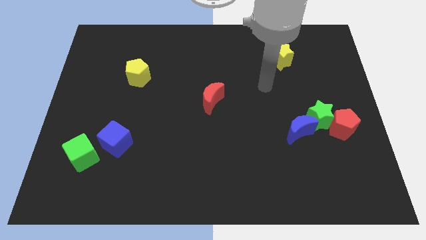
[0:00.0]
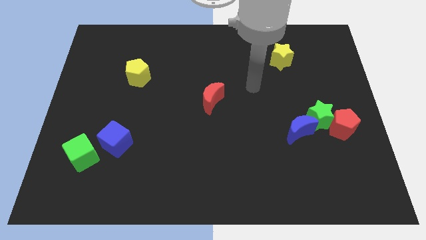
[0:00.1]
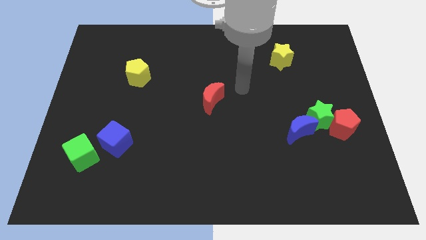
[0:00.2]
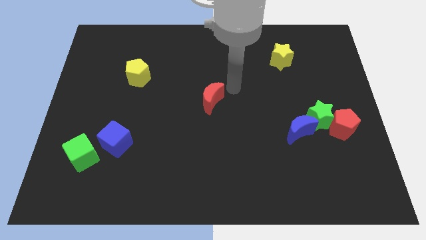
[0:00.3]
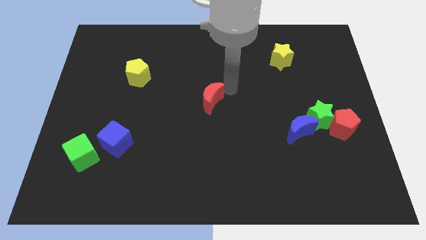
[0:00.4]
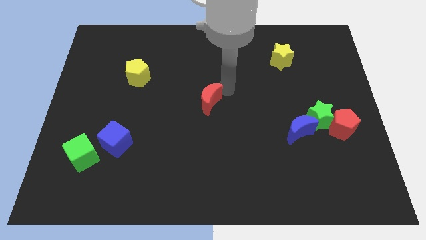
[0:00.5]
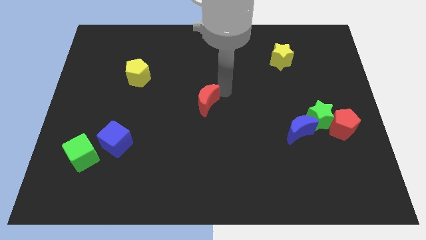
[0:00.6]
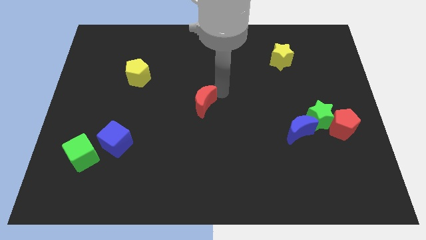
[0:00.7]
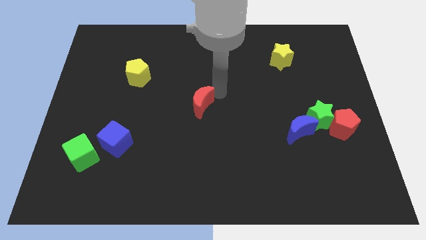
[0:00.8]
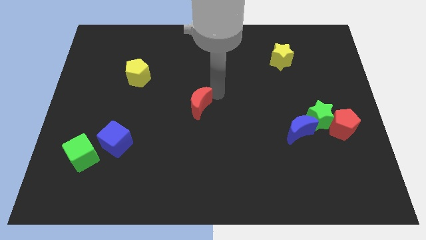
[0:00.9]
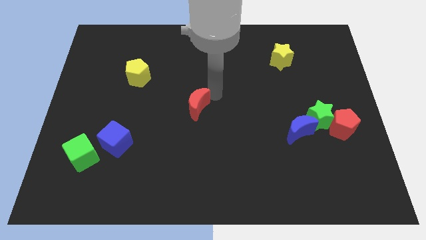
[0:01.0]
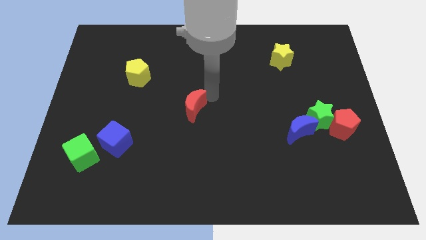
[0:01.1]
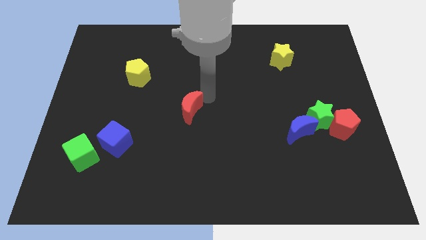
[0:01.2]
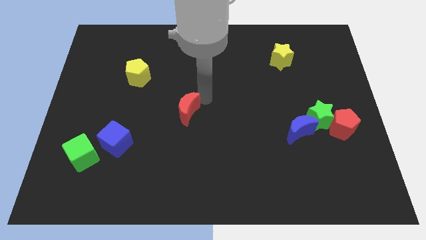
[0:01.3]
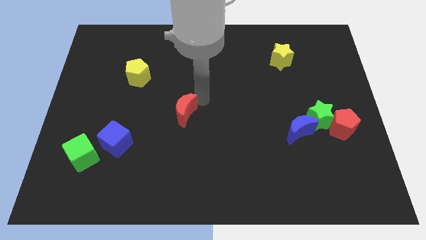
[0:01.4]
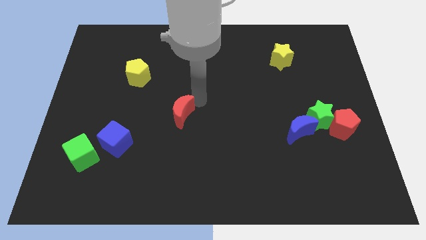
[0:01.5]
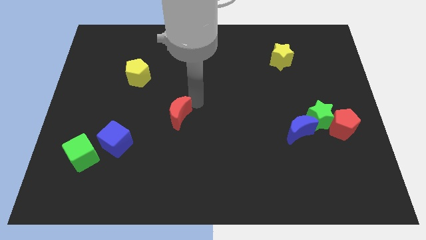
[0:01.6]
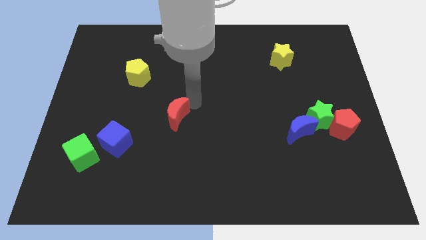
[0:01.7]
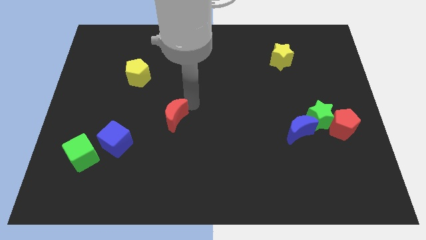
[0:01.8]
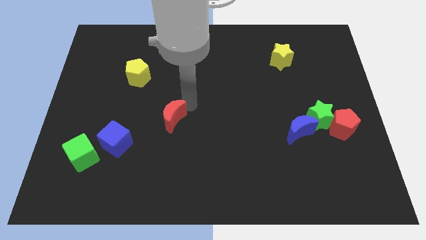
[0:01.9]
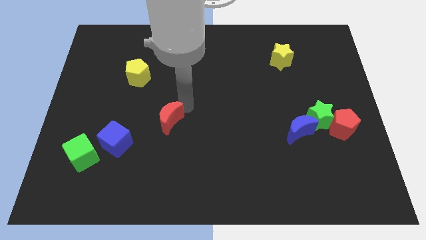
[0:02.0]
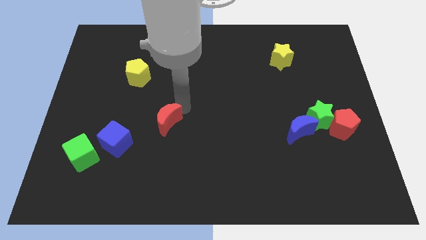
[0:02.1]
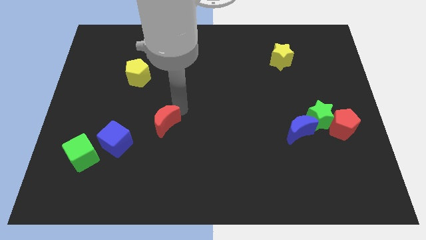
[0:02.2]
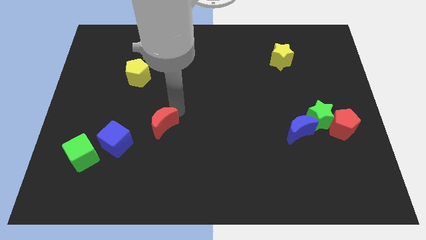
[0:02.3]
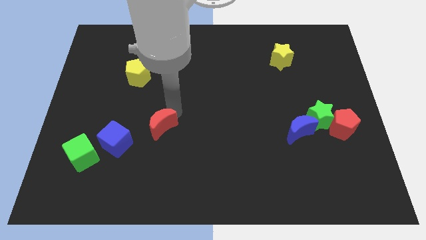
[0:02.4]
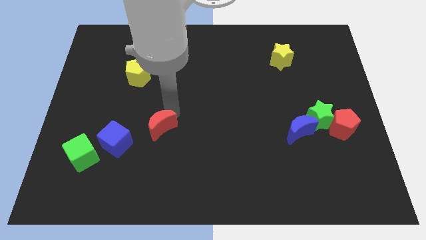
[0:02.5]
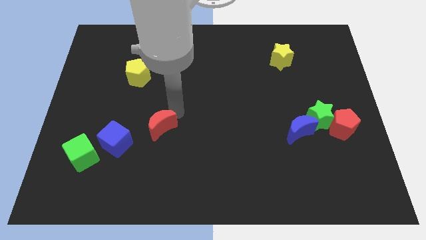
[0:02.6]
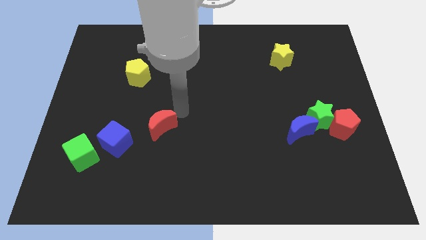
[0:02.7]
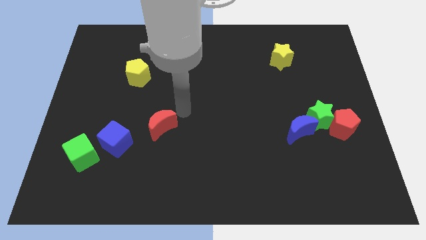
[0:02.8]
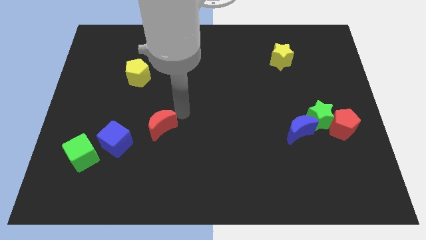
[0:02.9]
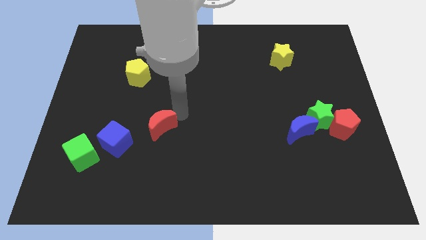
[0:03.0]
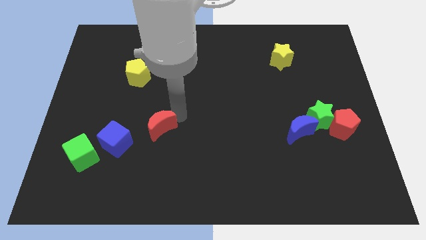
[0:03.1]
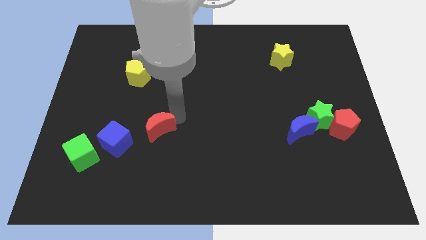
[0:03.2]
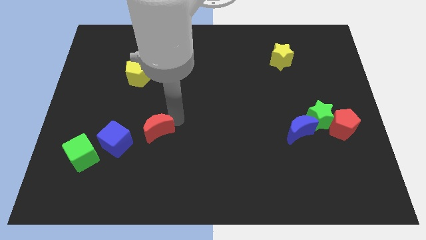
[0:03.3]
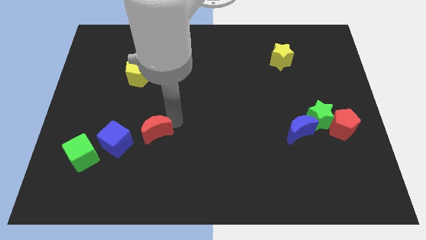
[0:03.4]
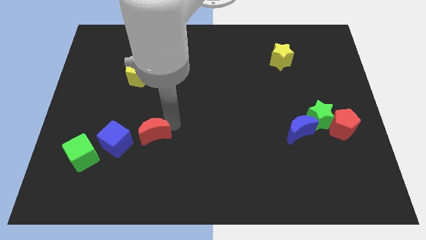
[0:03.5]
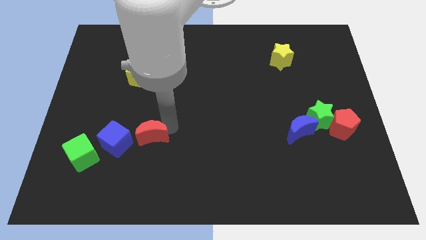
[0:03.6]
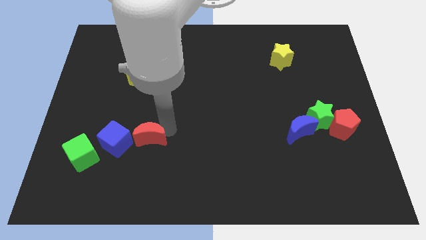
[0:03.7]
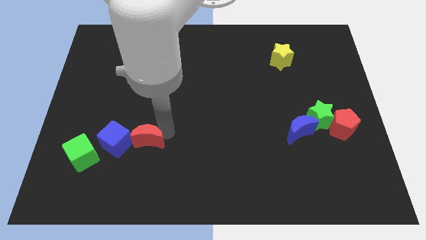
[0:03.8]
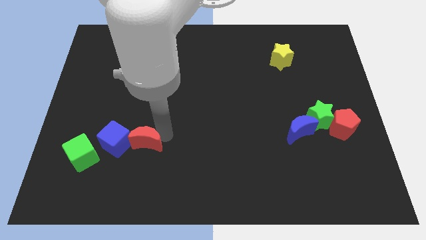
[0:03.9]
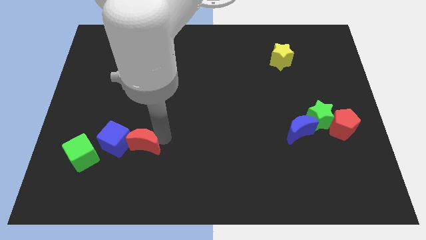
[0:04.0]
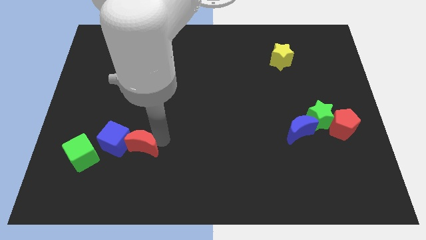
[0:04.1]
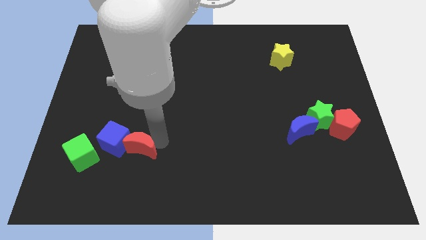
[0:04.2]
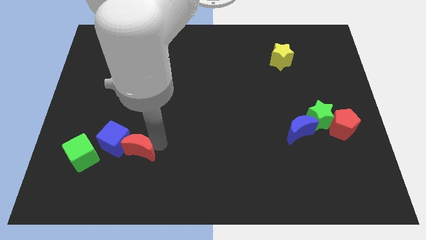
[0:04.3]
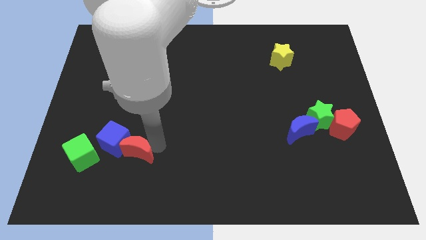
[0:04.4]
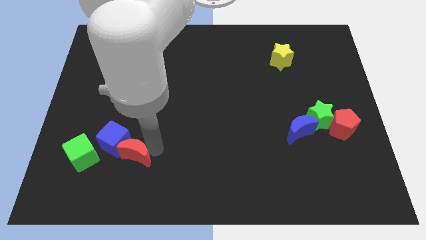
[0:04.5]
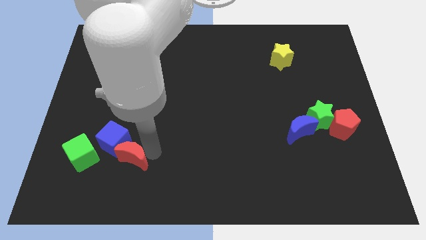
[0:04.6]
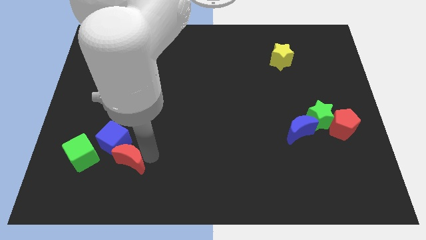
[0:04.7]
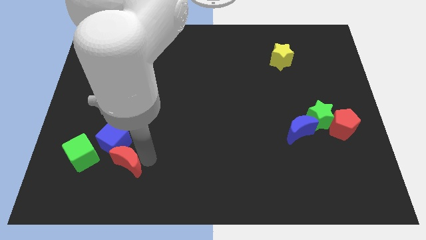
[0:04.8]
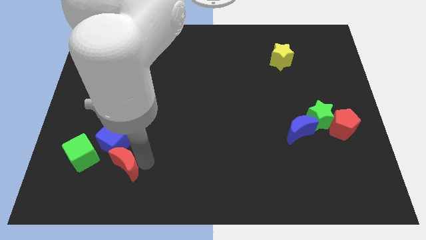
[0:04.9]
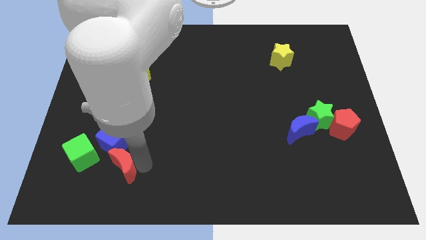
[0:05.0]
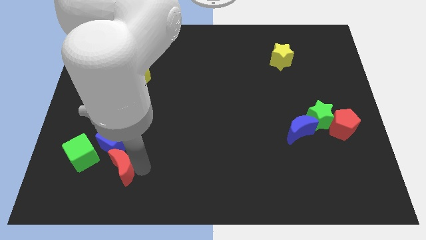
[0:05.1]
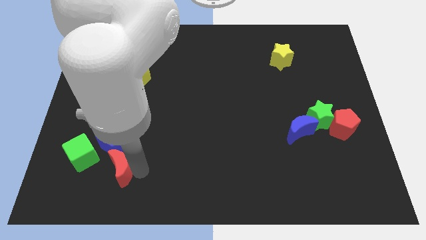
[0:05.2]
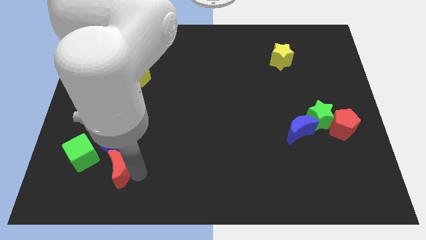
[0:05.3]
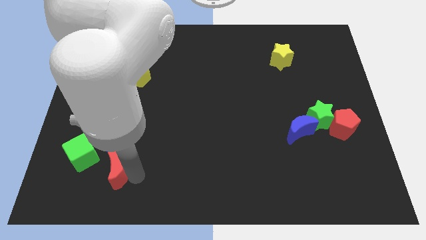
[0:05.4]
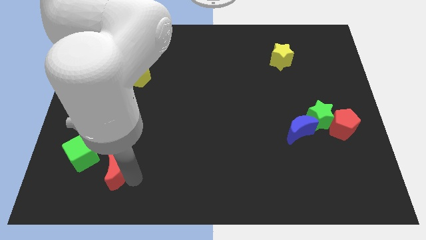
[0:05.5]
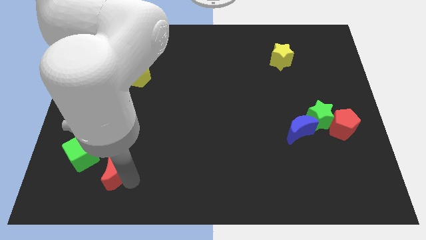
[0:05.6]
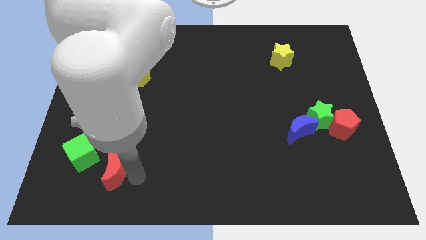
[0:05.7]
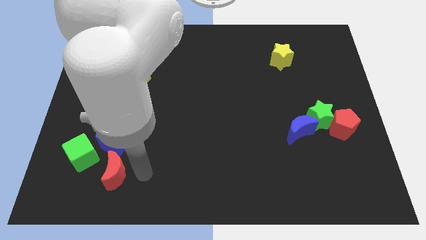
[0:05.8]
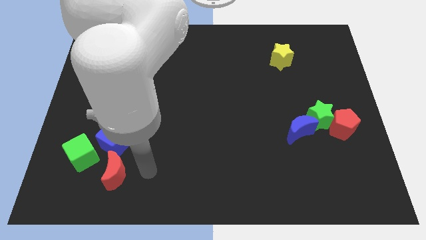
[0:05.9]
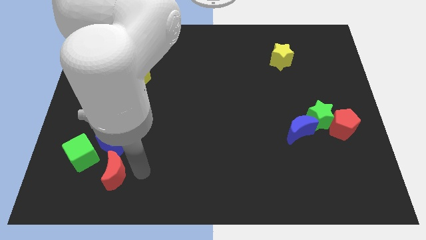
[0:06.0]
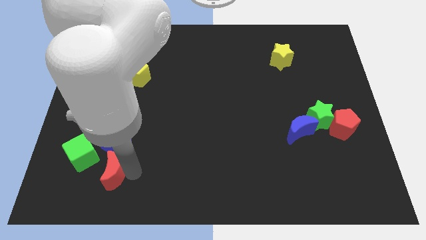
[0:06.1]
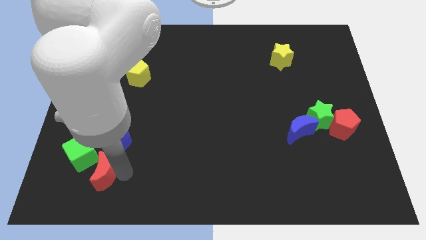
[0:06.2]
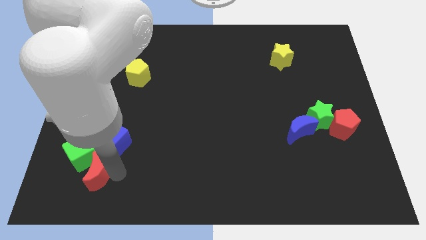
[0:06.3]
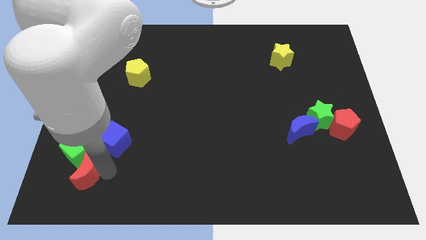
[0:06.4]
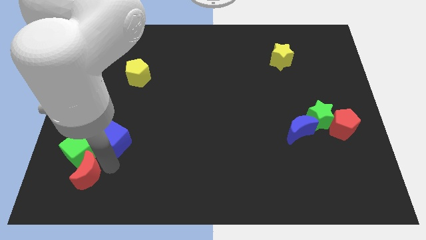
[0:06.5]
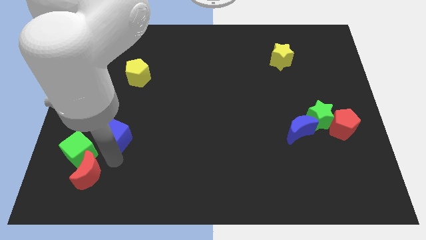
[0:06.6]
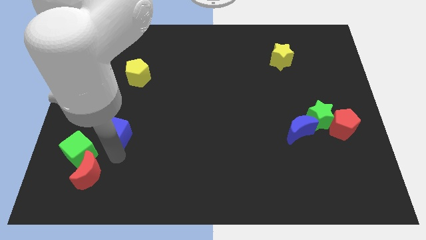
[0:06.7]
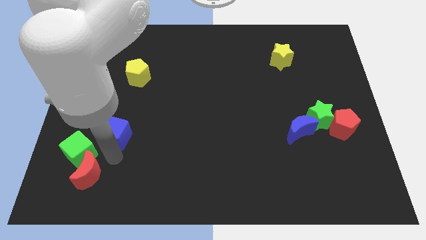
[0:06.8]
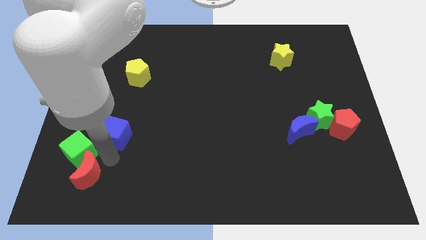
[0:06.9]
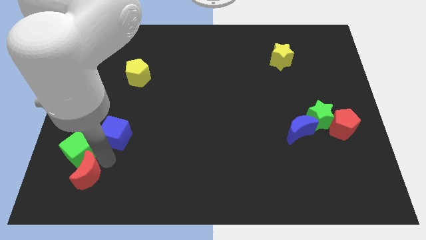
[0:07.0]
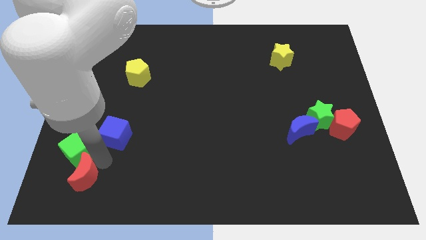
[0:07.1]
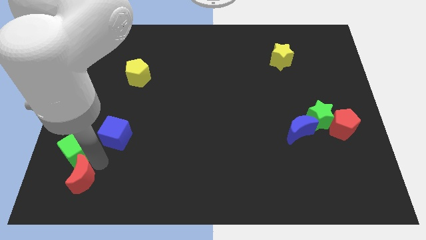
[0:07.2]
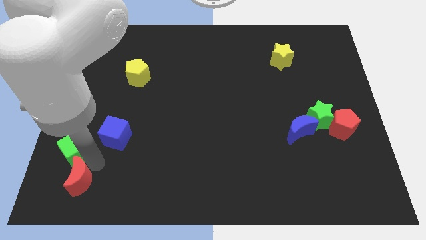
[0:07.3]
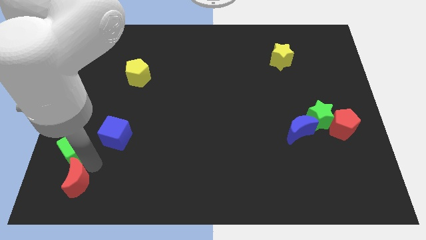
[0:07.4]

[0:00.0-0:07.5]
push the red moon to the bottom left
